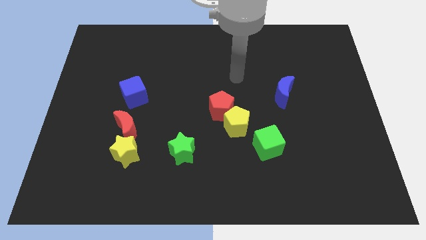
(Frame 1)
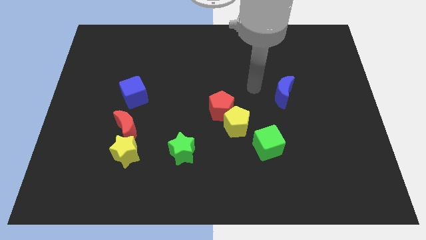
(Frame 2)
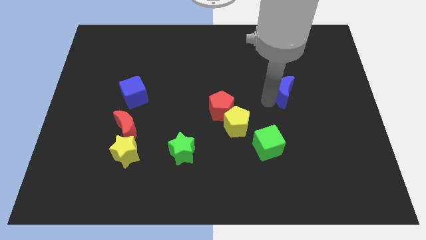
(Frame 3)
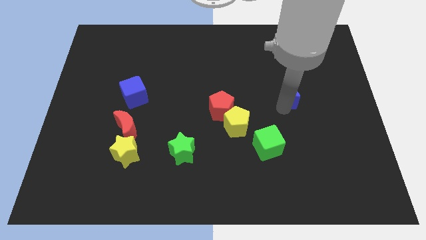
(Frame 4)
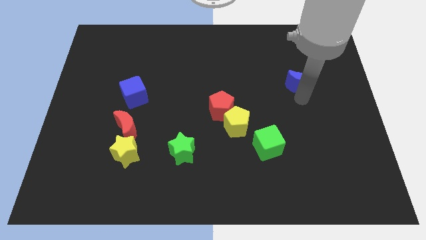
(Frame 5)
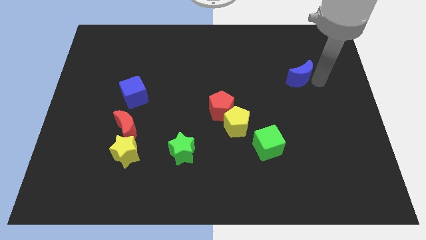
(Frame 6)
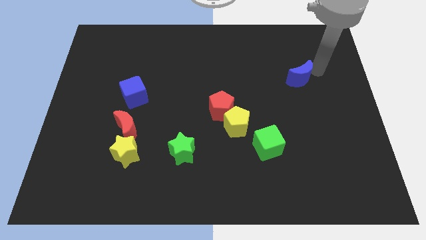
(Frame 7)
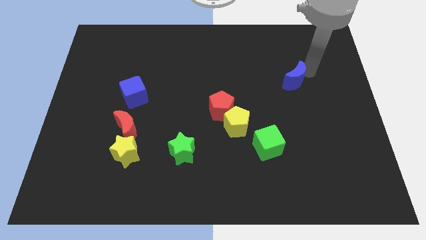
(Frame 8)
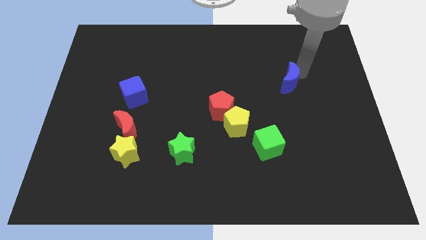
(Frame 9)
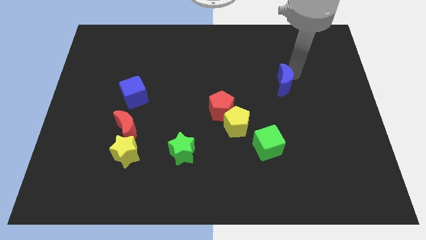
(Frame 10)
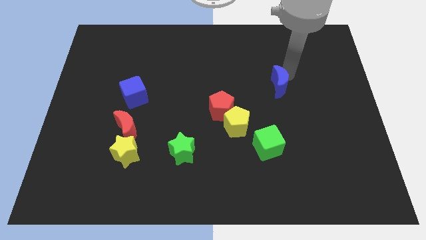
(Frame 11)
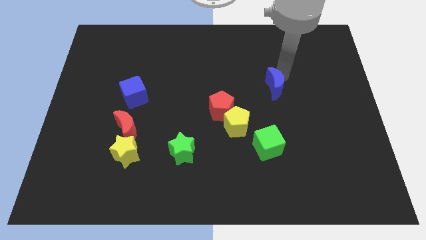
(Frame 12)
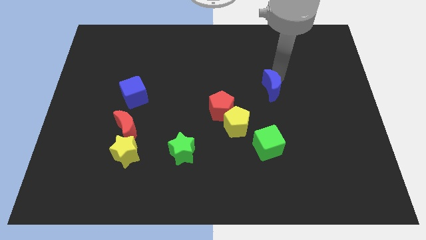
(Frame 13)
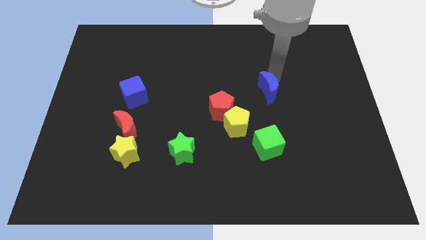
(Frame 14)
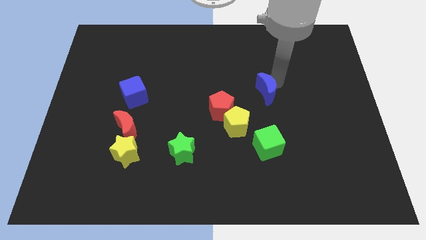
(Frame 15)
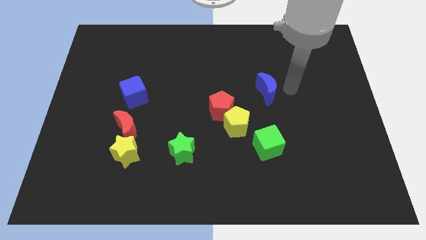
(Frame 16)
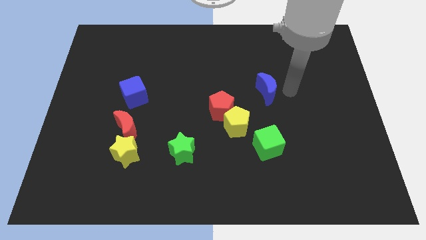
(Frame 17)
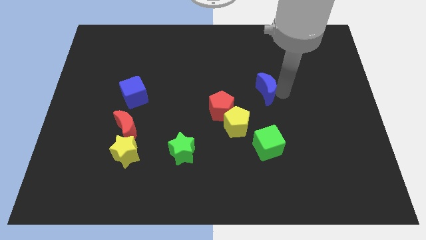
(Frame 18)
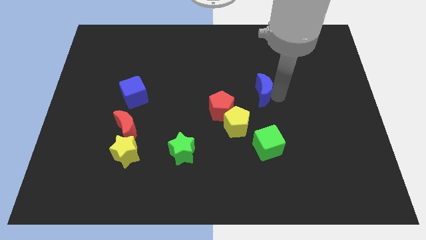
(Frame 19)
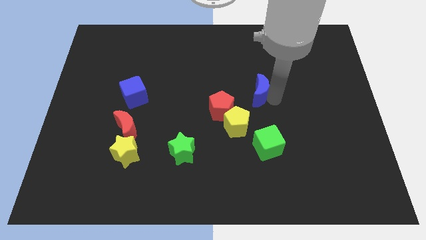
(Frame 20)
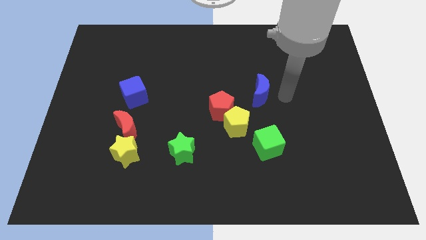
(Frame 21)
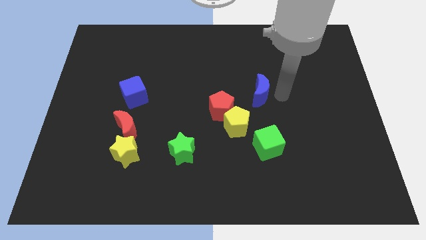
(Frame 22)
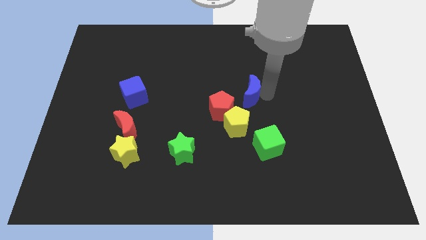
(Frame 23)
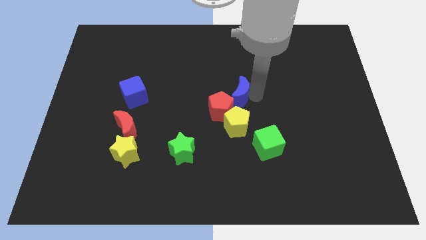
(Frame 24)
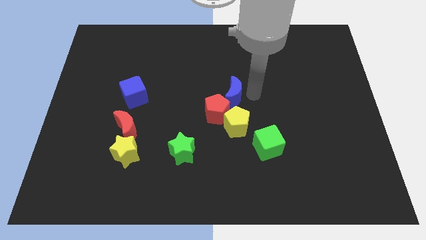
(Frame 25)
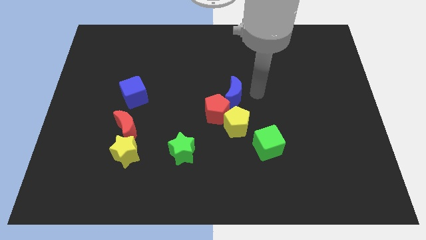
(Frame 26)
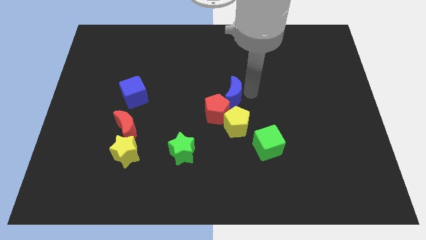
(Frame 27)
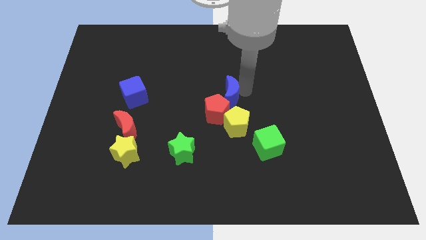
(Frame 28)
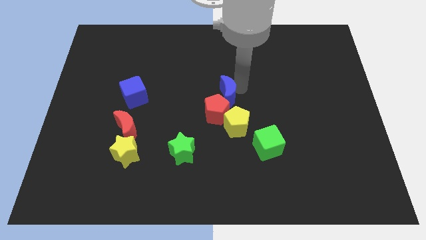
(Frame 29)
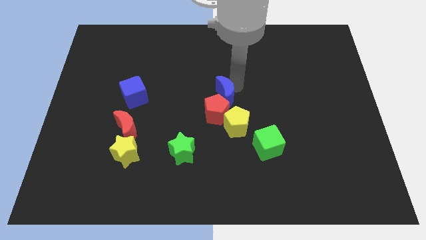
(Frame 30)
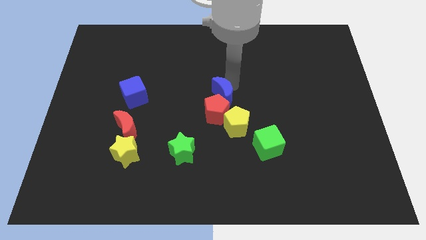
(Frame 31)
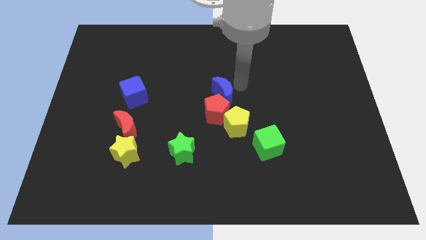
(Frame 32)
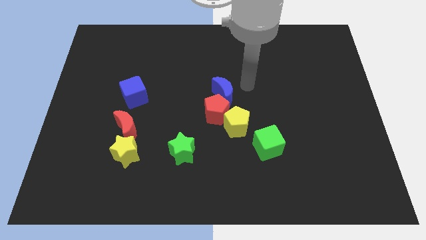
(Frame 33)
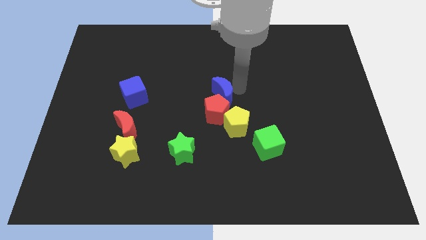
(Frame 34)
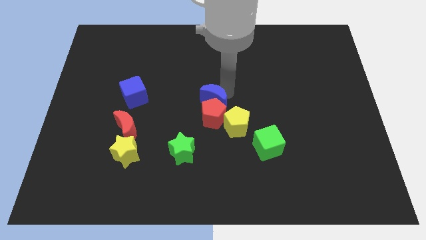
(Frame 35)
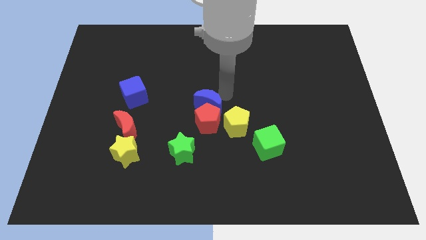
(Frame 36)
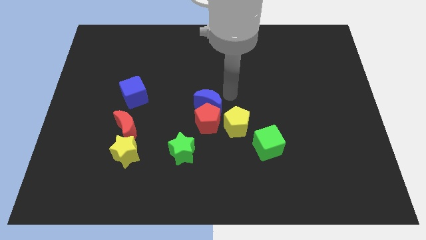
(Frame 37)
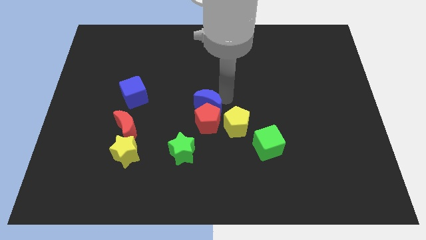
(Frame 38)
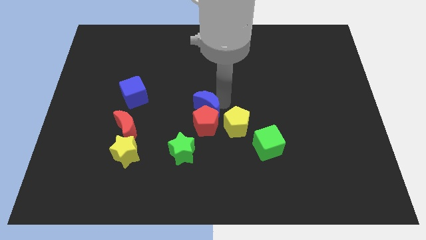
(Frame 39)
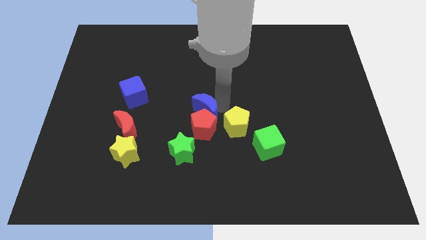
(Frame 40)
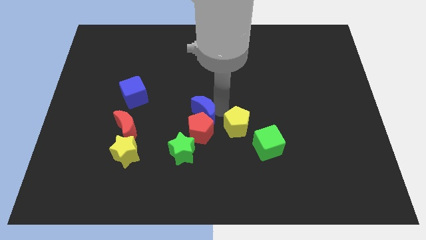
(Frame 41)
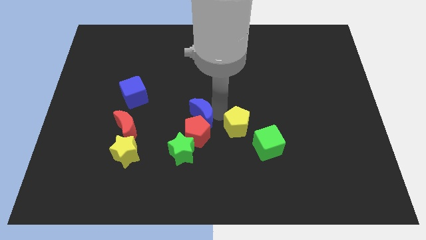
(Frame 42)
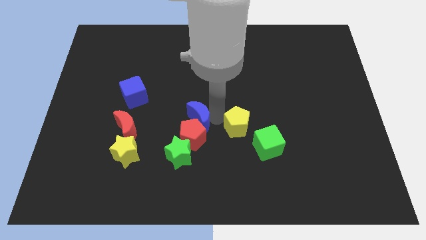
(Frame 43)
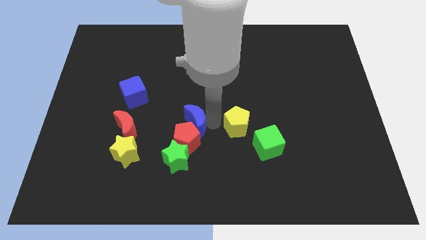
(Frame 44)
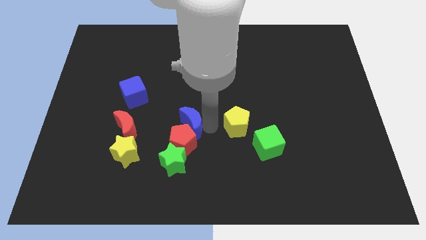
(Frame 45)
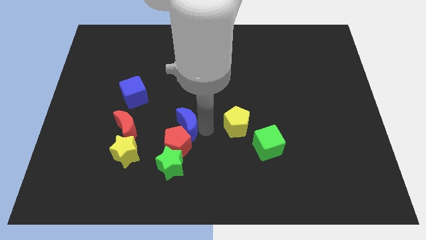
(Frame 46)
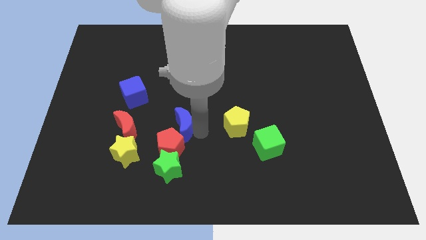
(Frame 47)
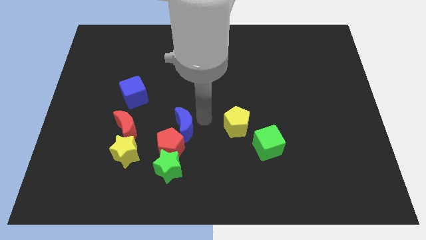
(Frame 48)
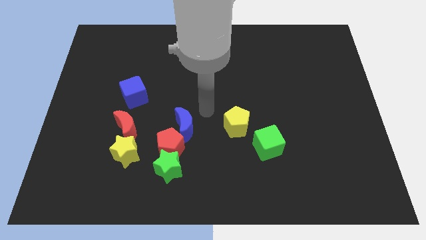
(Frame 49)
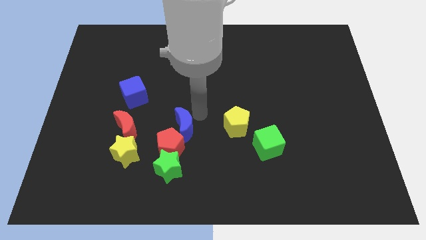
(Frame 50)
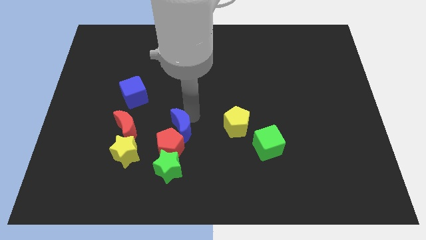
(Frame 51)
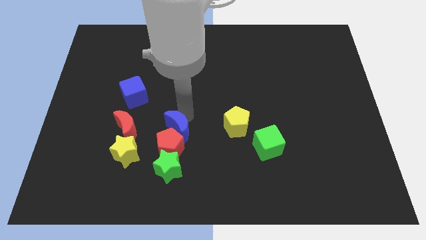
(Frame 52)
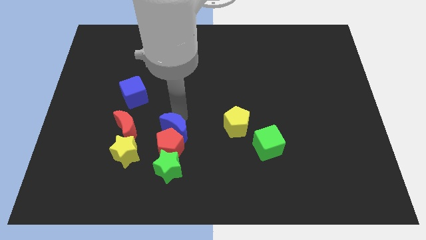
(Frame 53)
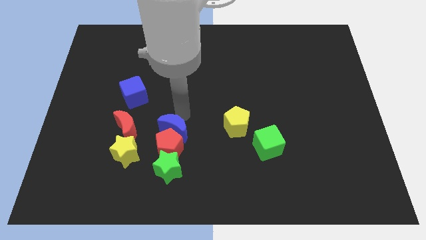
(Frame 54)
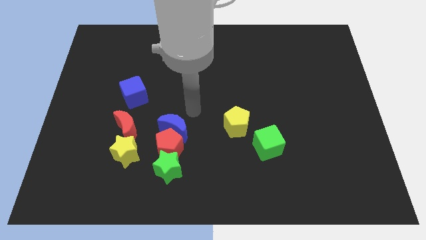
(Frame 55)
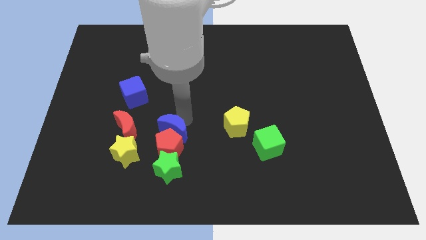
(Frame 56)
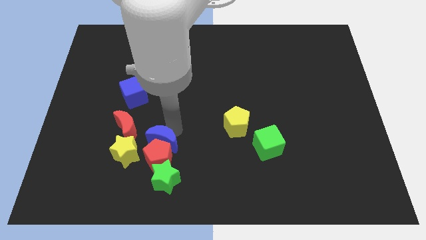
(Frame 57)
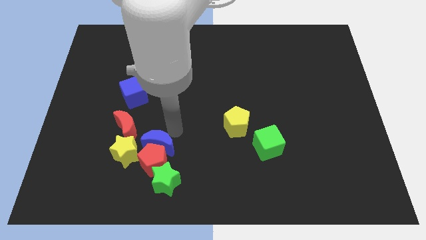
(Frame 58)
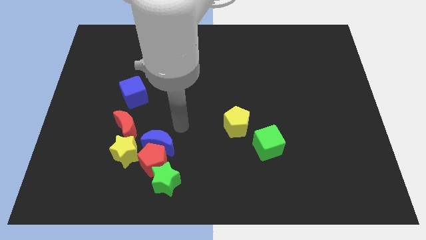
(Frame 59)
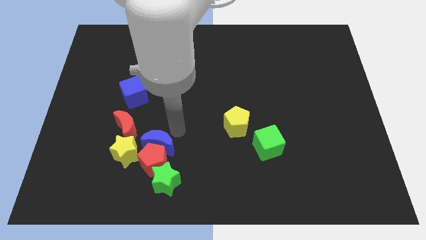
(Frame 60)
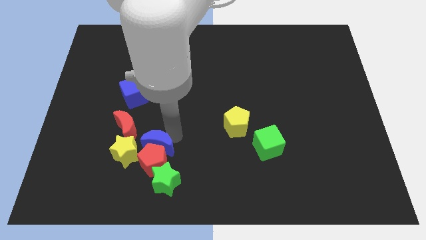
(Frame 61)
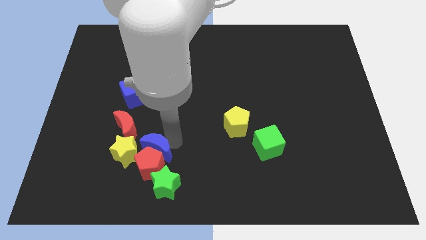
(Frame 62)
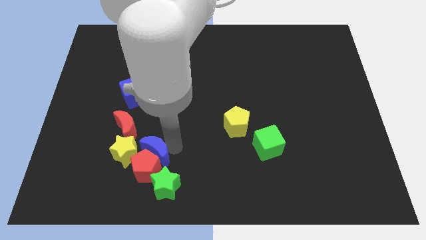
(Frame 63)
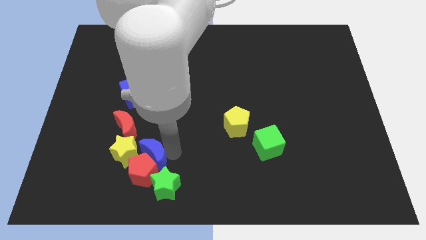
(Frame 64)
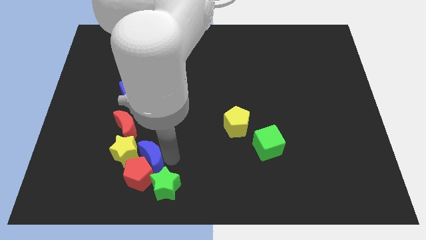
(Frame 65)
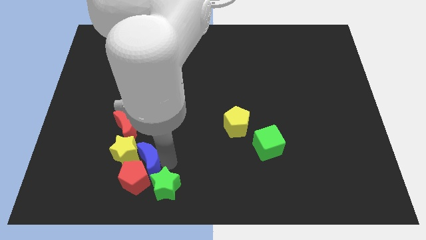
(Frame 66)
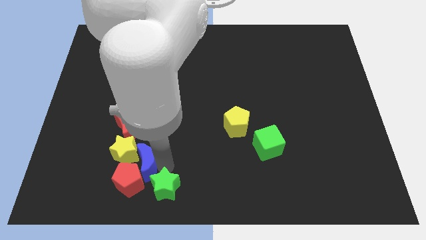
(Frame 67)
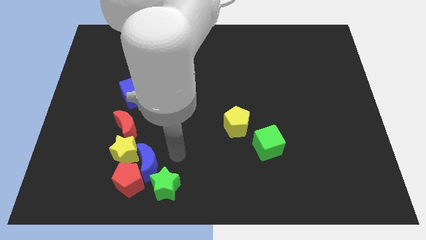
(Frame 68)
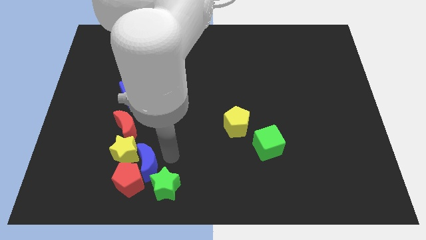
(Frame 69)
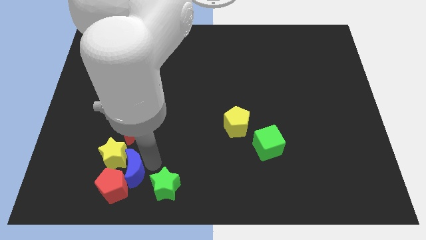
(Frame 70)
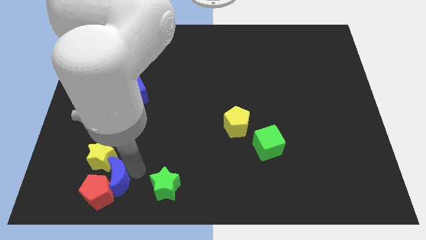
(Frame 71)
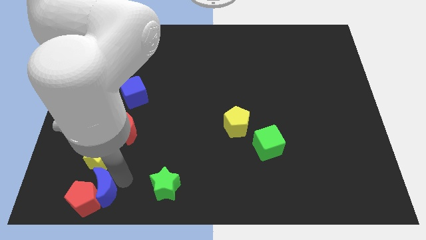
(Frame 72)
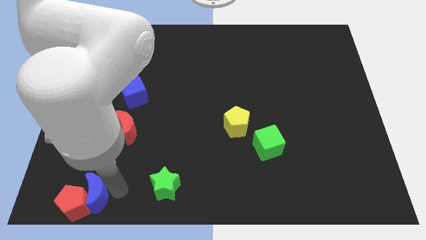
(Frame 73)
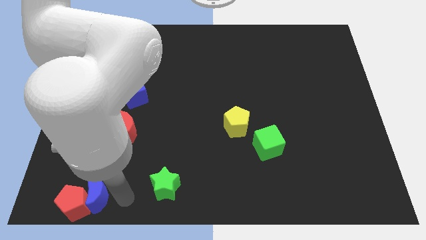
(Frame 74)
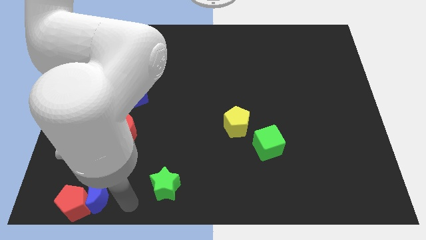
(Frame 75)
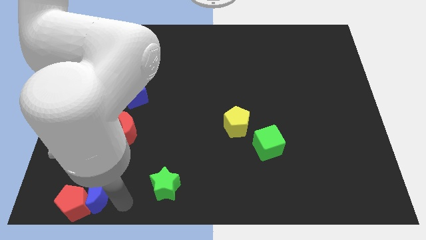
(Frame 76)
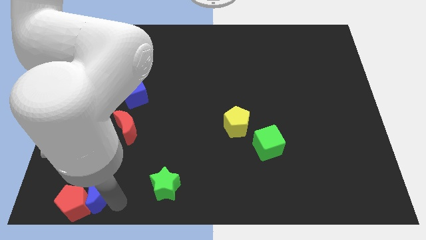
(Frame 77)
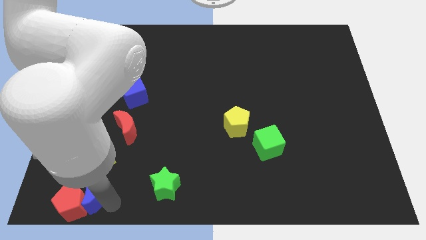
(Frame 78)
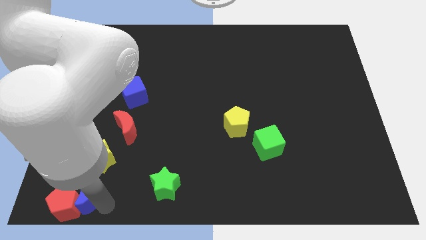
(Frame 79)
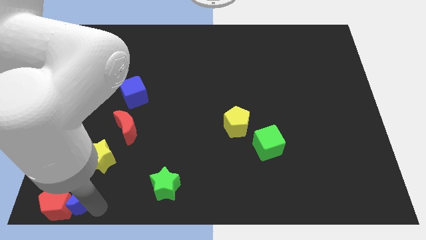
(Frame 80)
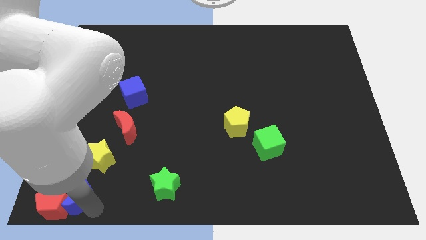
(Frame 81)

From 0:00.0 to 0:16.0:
slide the blue moon to the bottom left of the board
